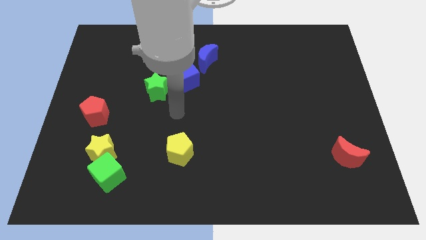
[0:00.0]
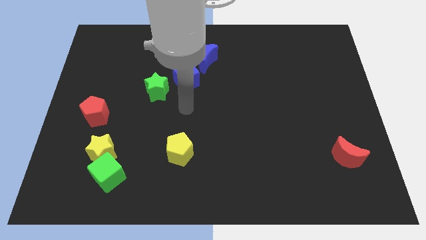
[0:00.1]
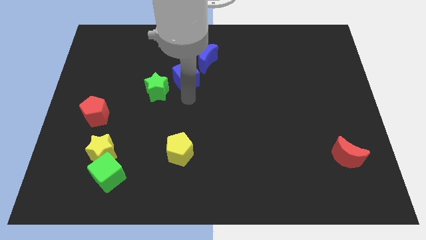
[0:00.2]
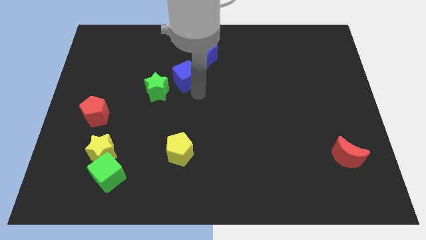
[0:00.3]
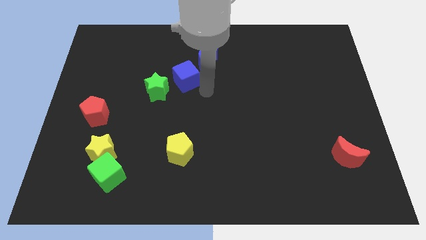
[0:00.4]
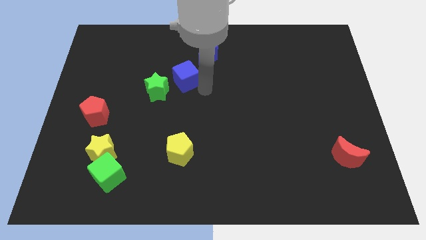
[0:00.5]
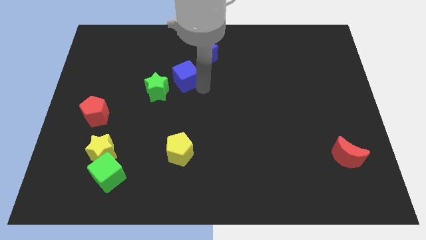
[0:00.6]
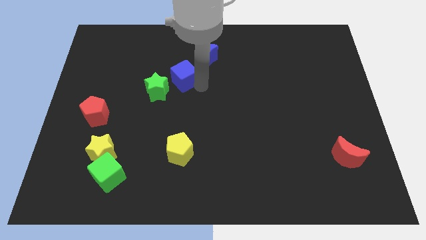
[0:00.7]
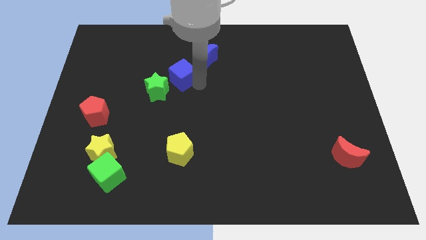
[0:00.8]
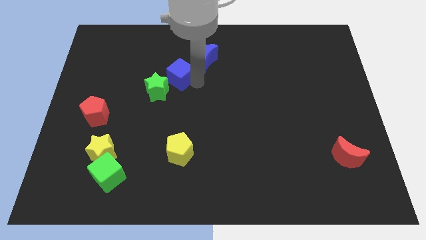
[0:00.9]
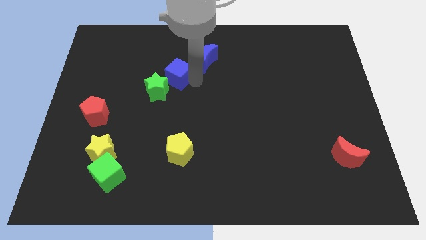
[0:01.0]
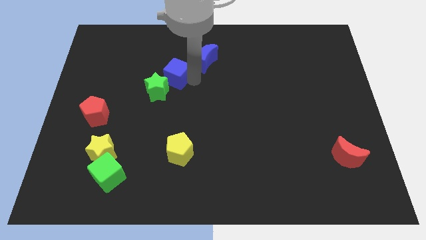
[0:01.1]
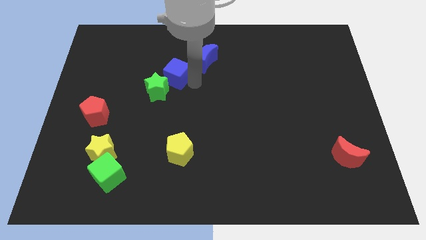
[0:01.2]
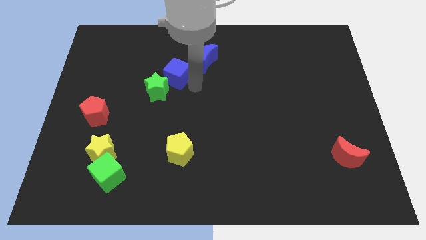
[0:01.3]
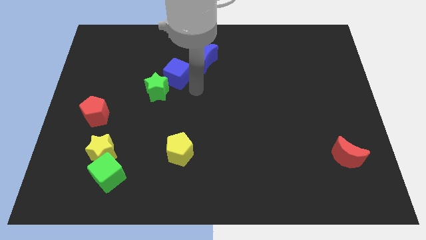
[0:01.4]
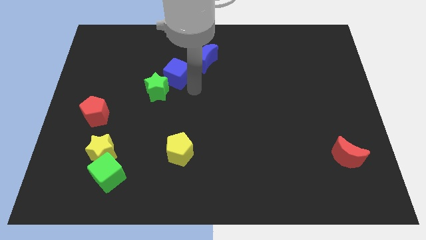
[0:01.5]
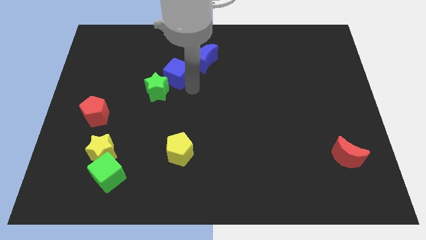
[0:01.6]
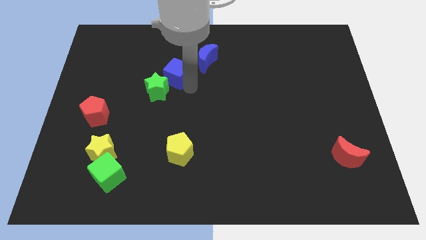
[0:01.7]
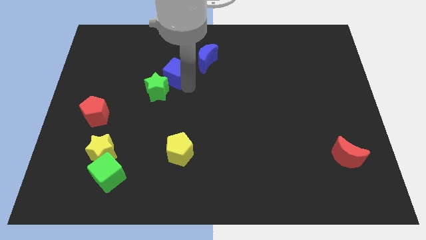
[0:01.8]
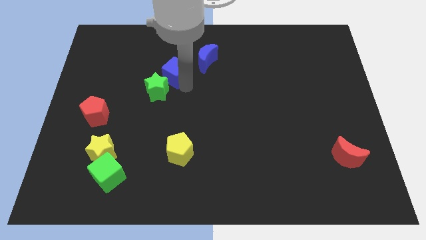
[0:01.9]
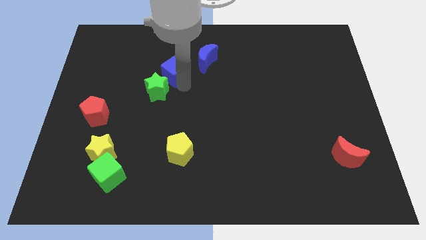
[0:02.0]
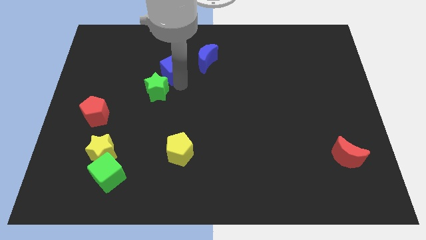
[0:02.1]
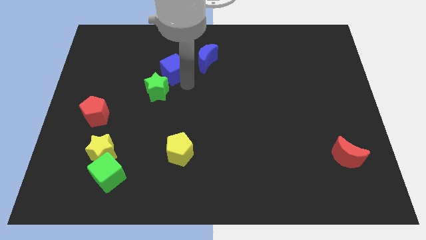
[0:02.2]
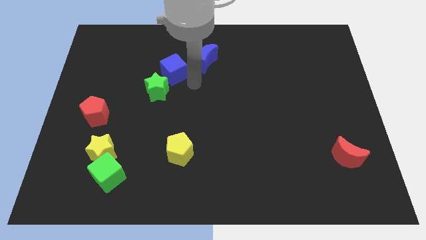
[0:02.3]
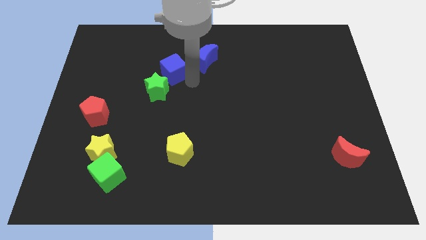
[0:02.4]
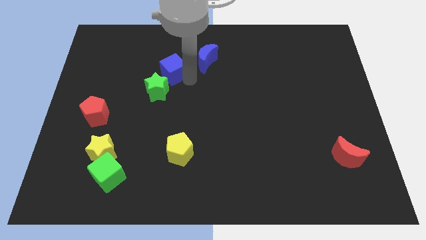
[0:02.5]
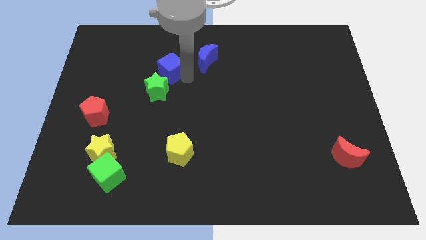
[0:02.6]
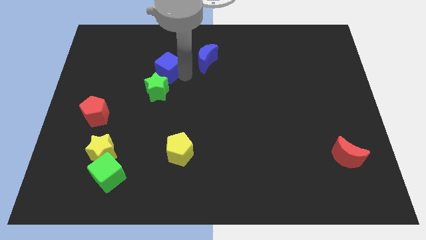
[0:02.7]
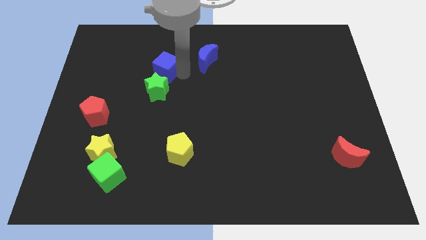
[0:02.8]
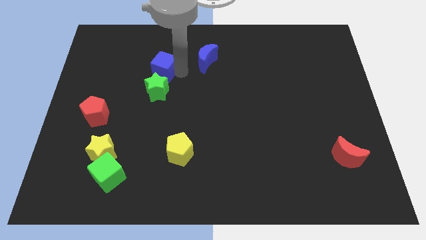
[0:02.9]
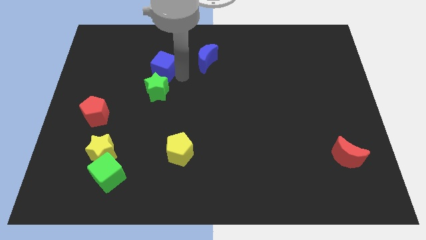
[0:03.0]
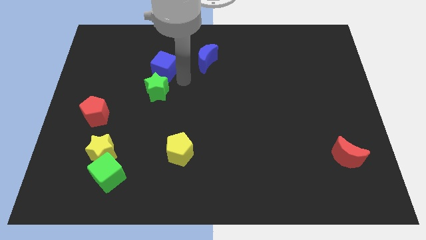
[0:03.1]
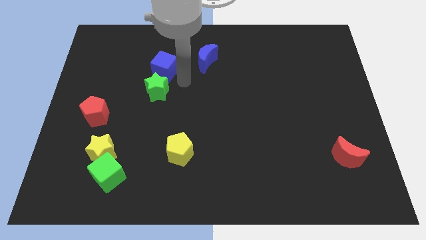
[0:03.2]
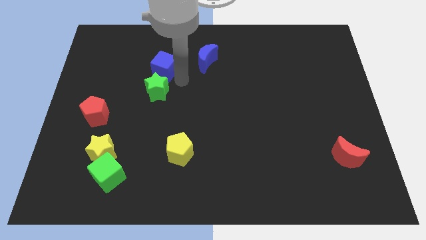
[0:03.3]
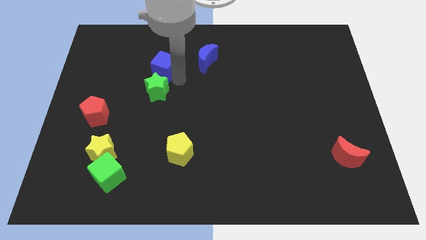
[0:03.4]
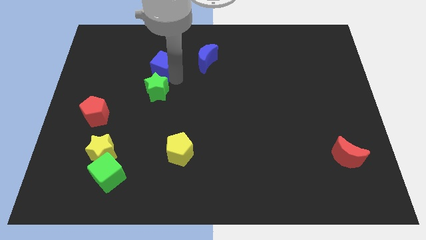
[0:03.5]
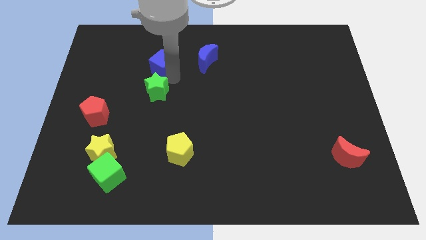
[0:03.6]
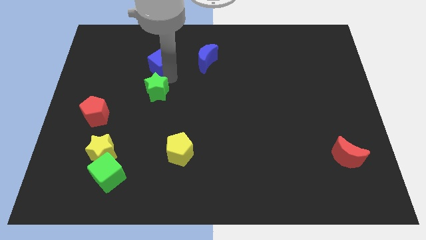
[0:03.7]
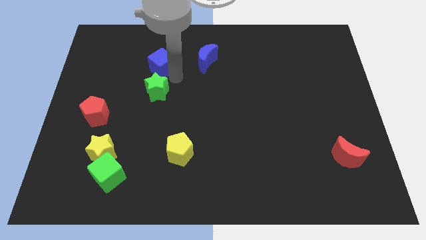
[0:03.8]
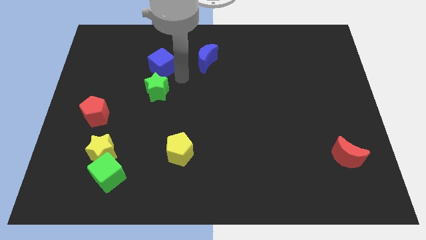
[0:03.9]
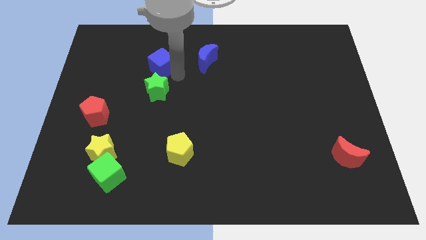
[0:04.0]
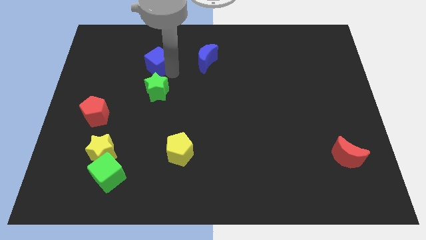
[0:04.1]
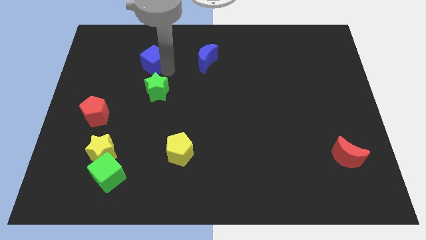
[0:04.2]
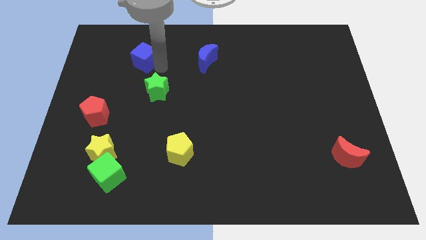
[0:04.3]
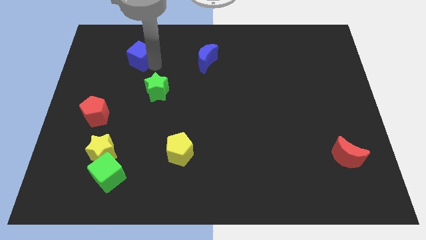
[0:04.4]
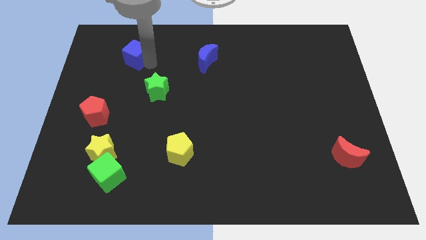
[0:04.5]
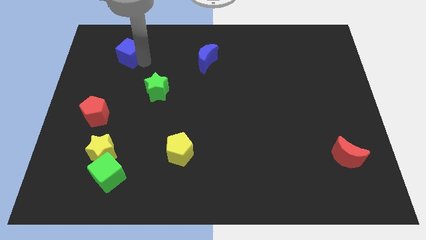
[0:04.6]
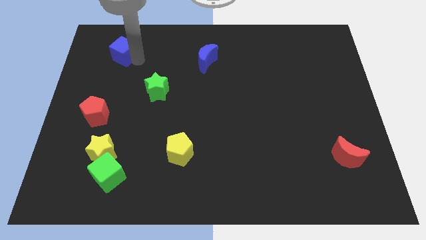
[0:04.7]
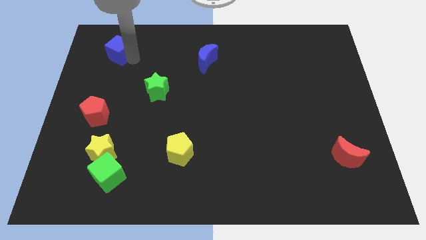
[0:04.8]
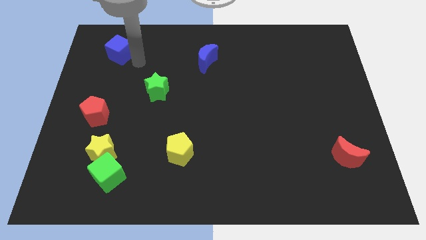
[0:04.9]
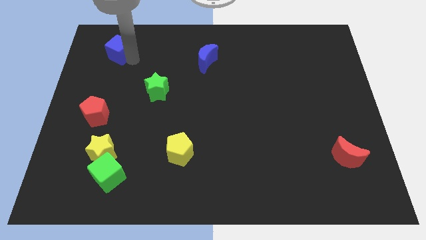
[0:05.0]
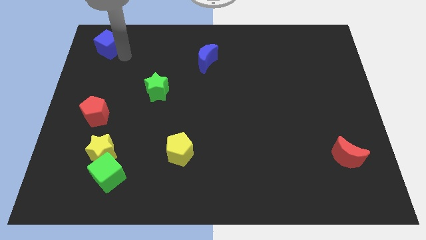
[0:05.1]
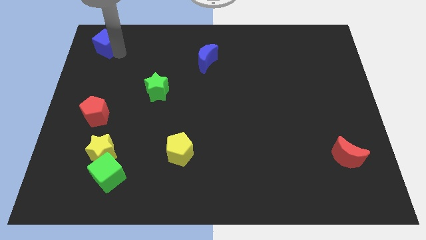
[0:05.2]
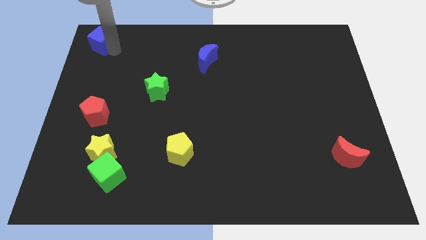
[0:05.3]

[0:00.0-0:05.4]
slide the blue cube to the top left of the board

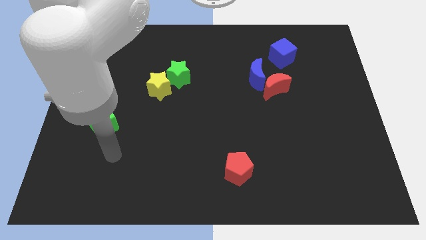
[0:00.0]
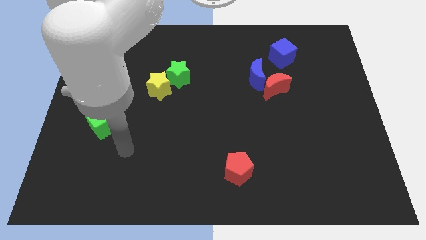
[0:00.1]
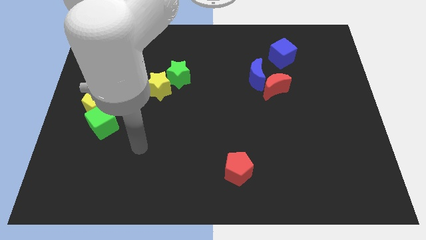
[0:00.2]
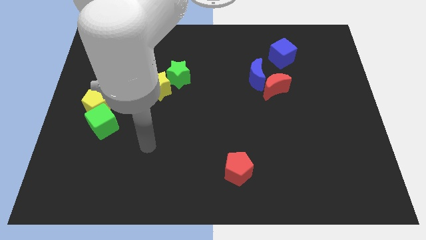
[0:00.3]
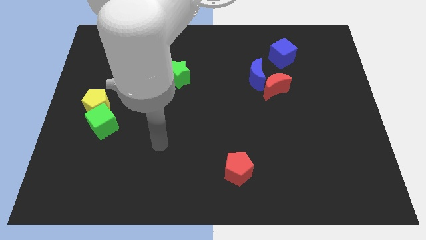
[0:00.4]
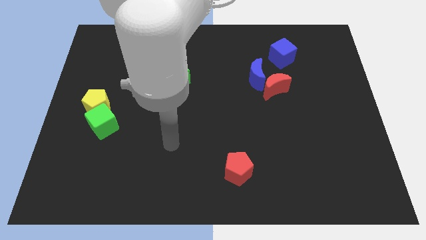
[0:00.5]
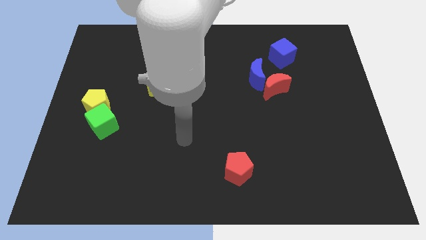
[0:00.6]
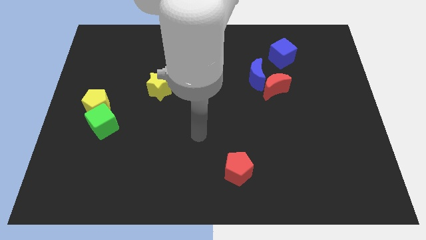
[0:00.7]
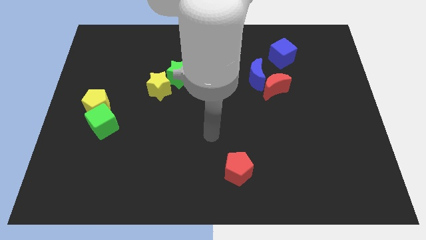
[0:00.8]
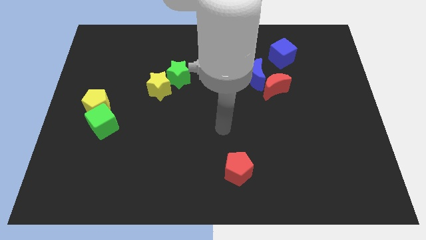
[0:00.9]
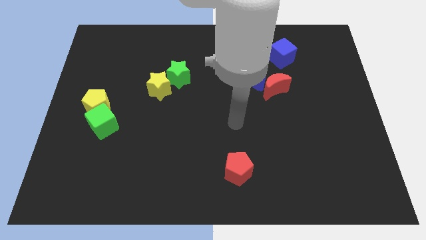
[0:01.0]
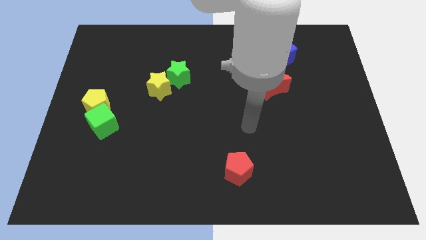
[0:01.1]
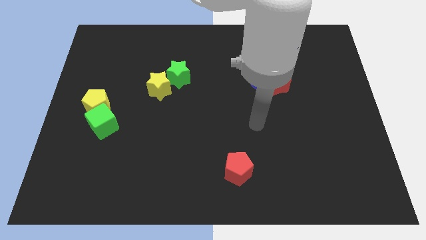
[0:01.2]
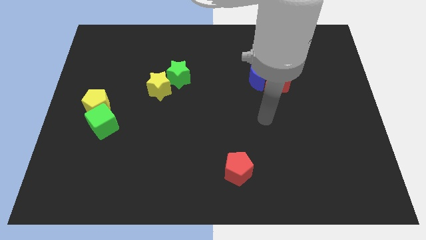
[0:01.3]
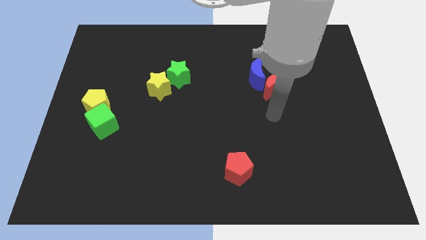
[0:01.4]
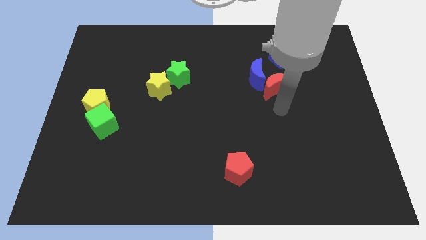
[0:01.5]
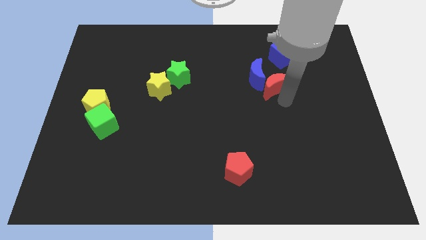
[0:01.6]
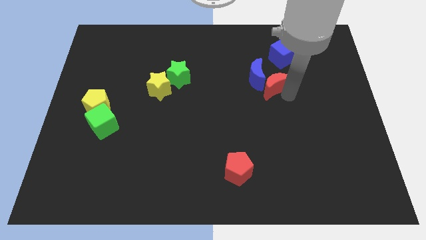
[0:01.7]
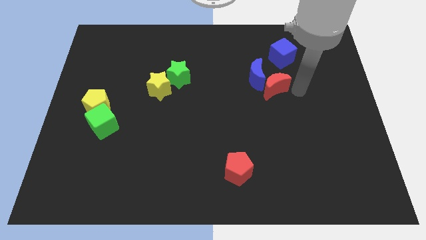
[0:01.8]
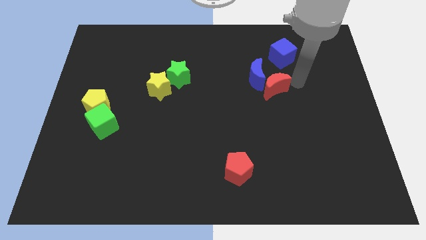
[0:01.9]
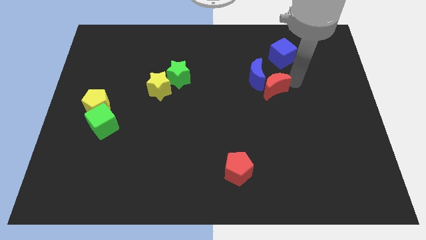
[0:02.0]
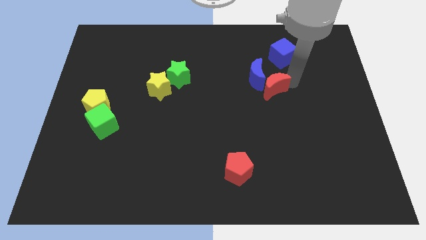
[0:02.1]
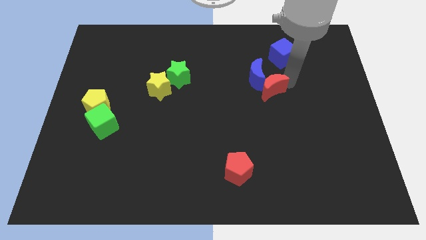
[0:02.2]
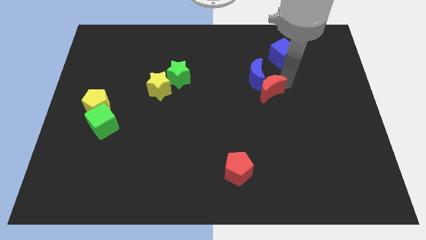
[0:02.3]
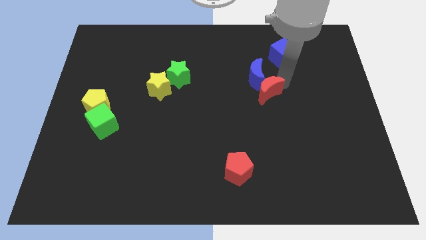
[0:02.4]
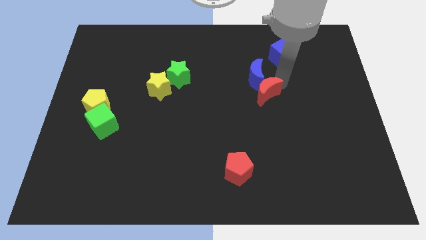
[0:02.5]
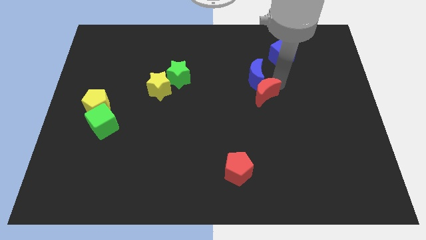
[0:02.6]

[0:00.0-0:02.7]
move the red moon to the center of the board
